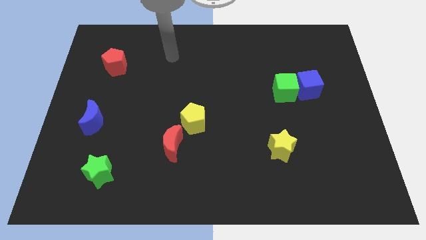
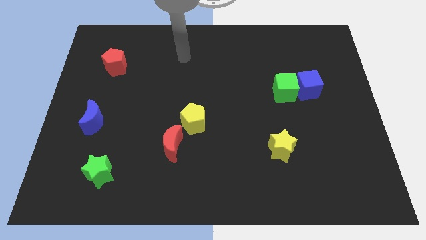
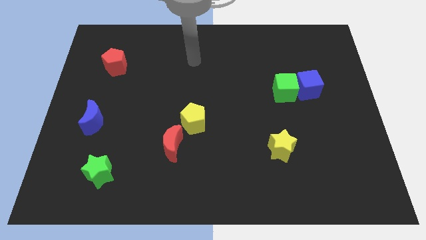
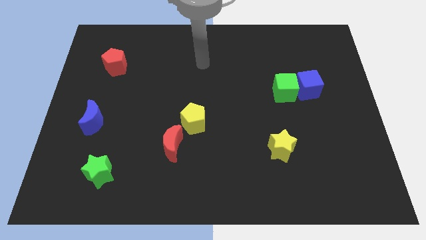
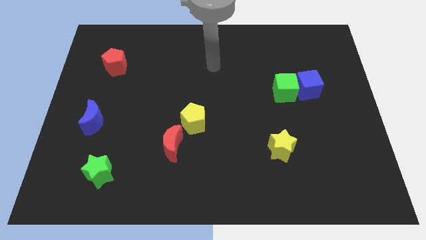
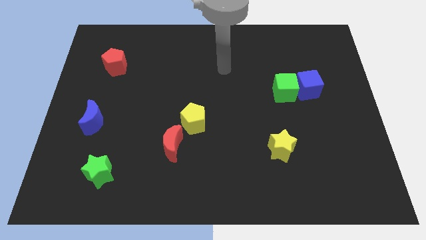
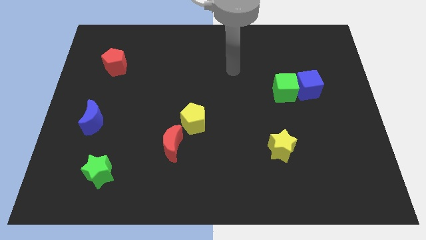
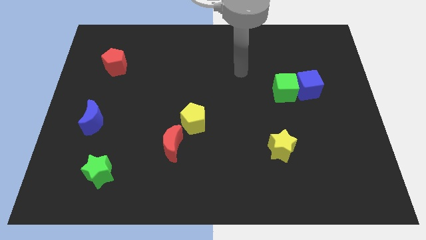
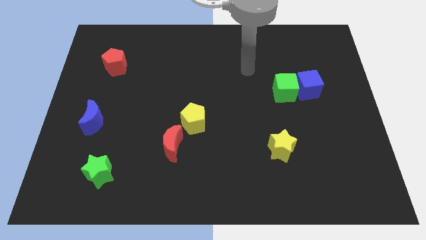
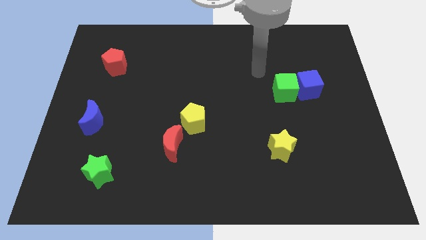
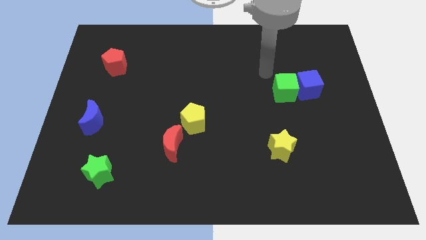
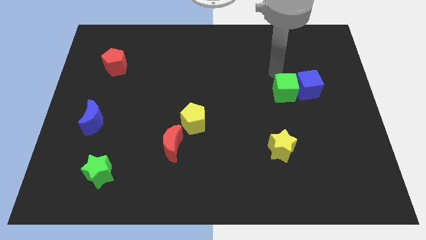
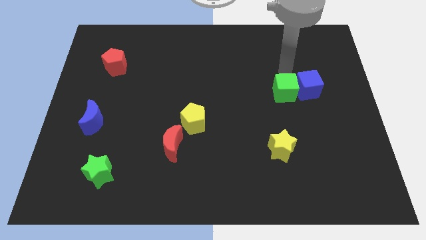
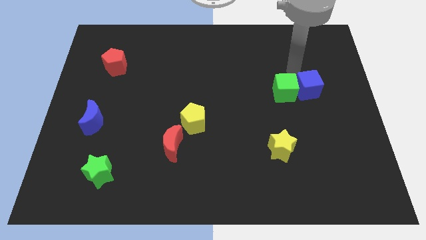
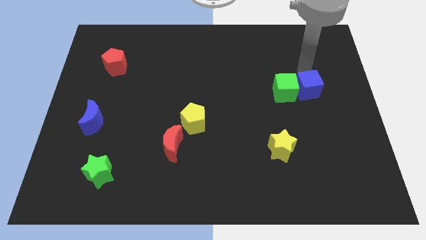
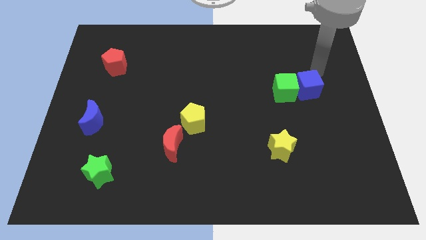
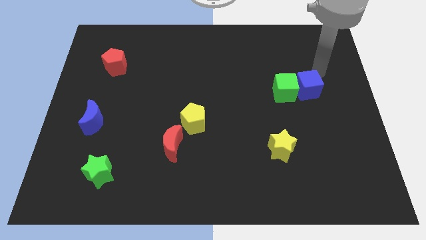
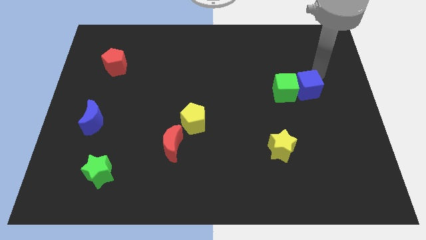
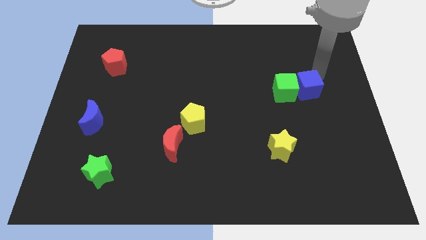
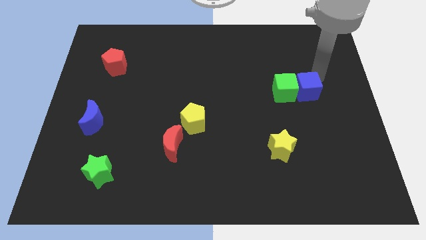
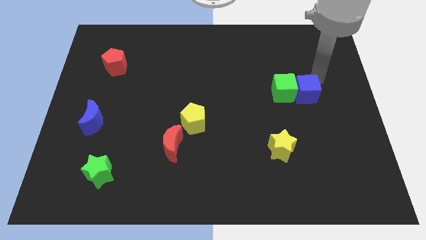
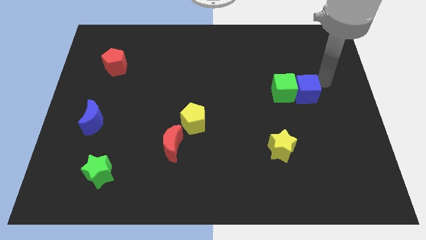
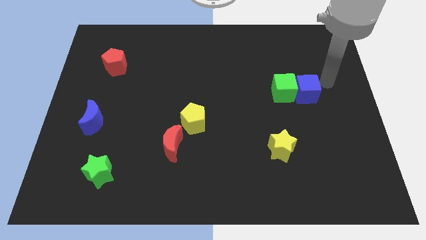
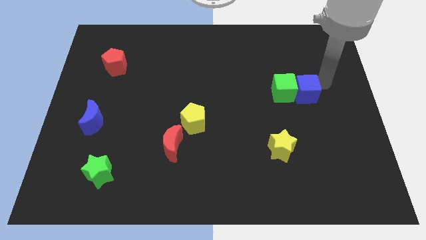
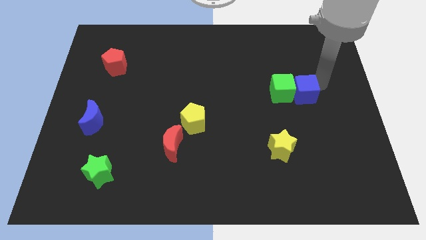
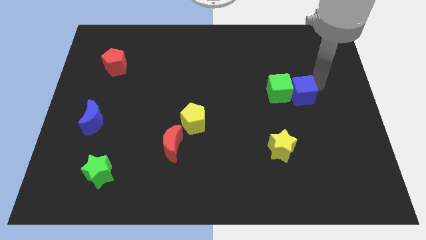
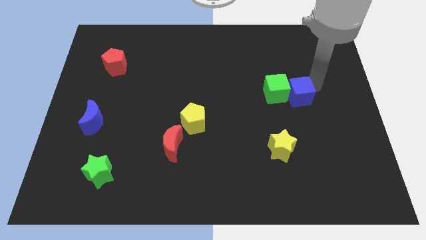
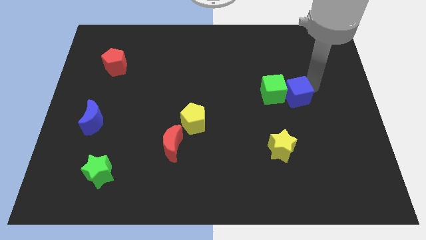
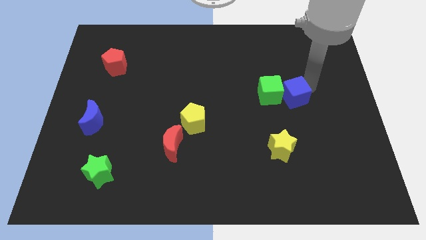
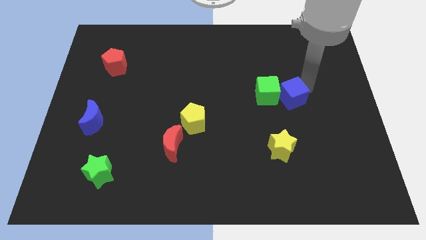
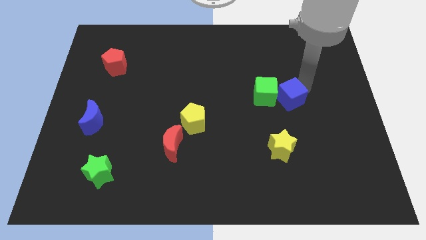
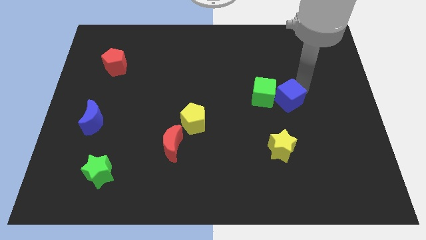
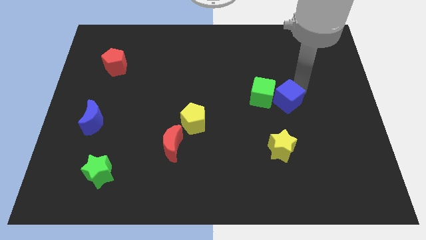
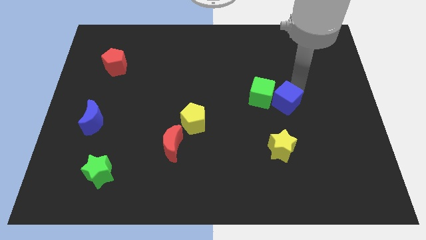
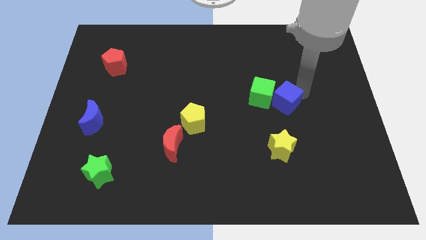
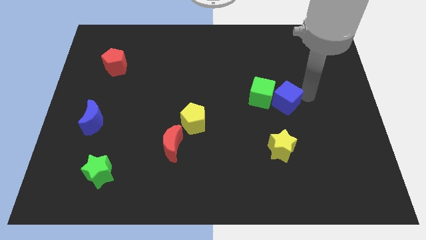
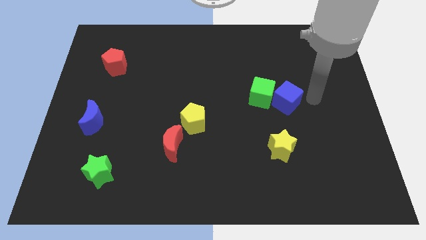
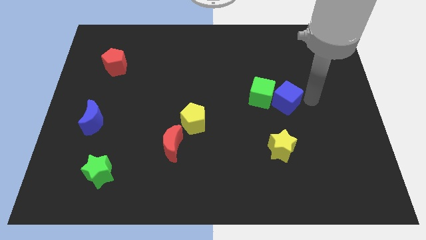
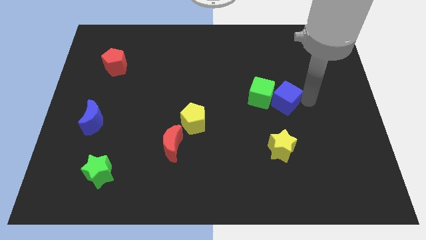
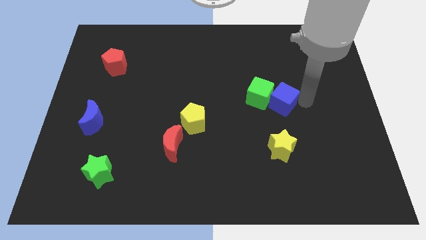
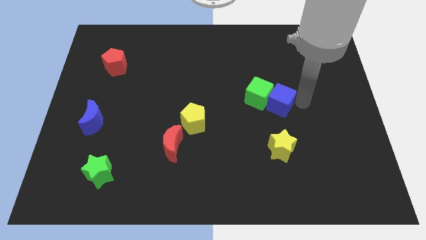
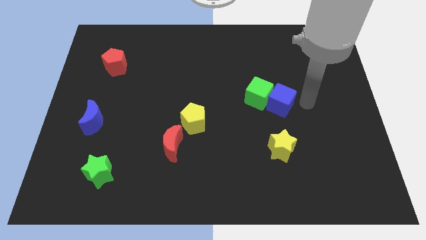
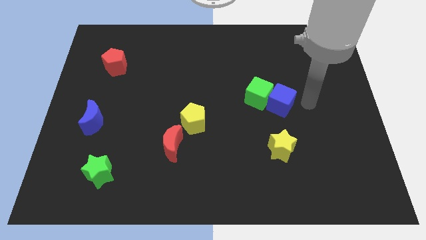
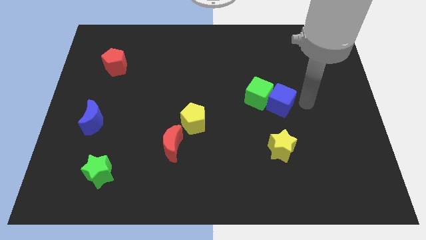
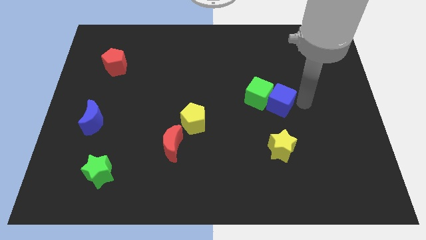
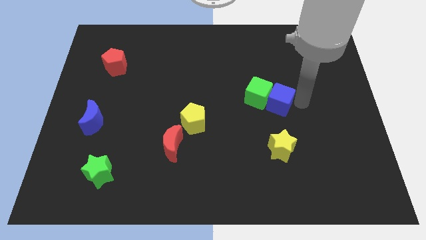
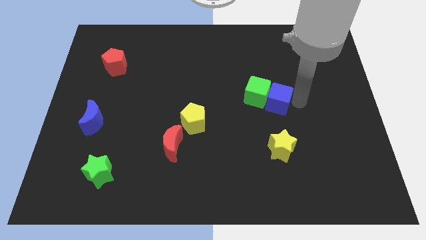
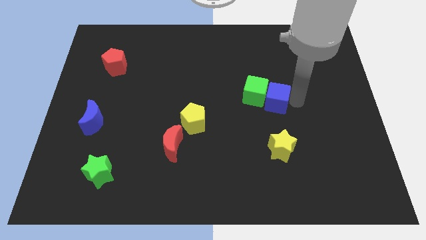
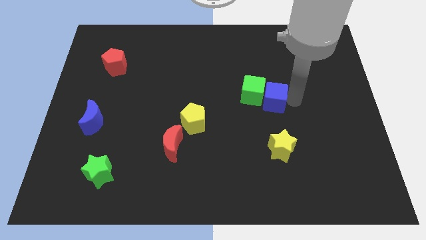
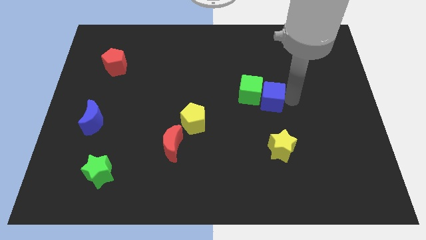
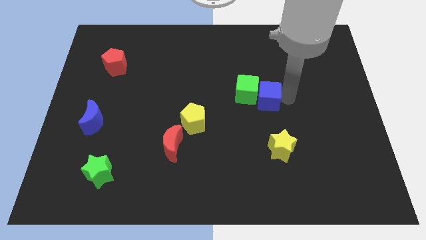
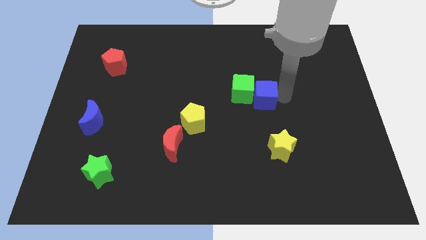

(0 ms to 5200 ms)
put the blue cube to the center
